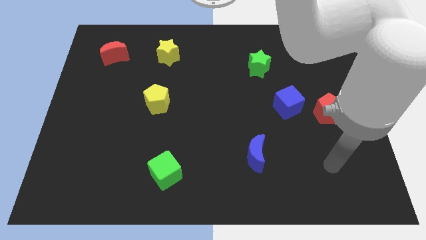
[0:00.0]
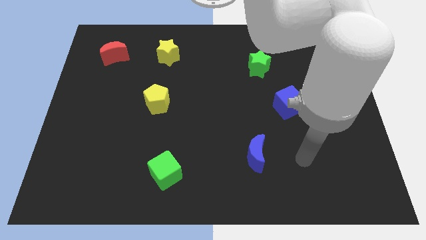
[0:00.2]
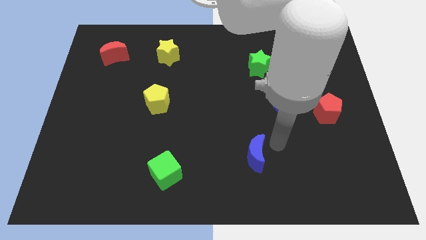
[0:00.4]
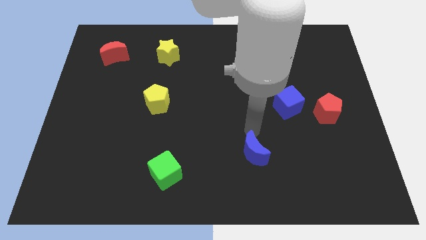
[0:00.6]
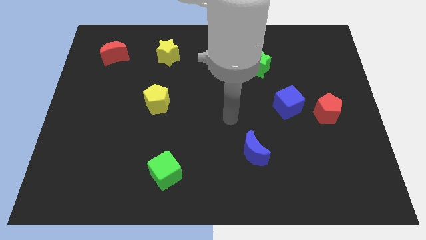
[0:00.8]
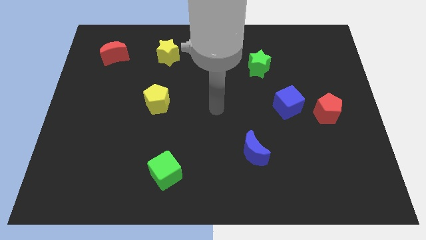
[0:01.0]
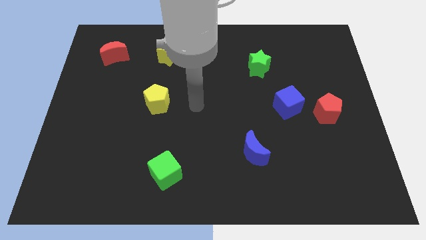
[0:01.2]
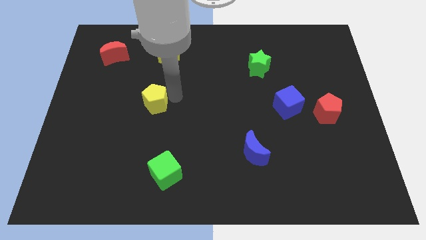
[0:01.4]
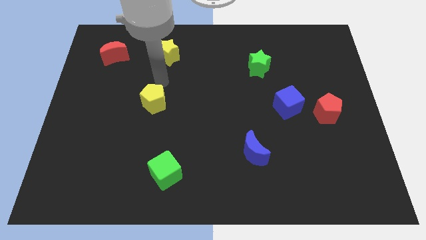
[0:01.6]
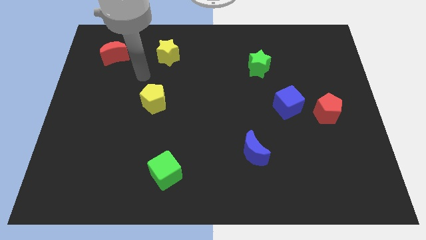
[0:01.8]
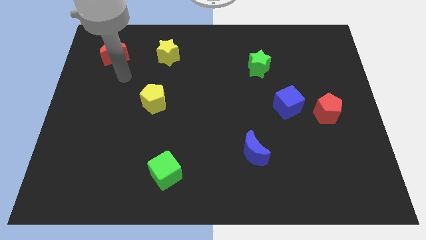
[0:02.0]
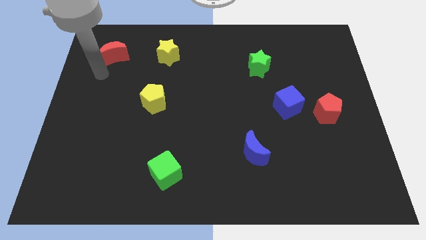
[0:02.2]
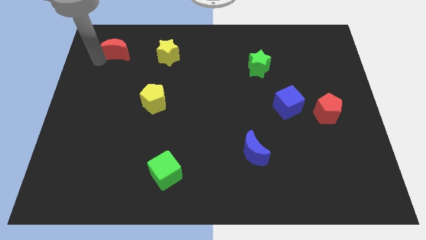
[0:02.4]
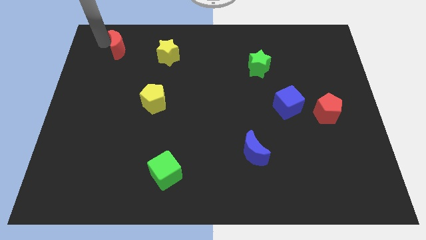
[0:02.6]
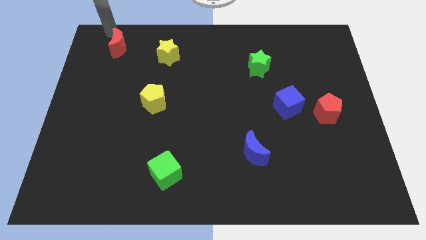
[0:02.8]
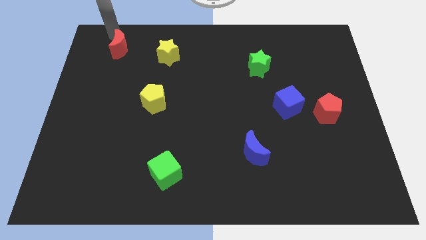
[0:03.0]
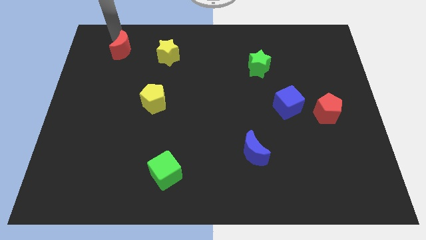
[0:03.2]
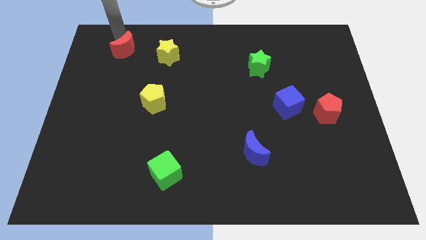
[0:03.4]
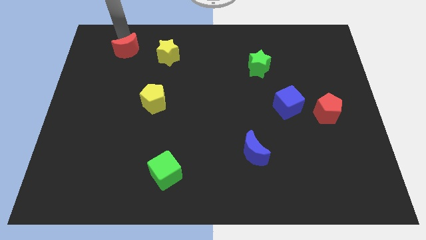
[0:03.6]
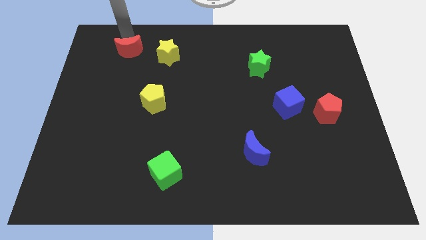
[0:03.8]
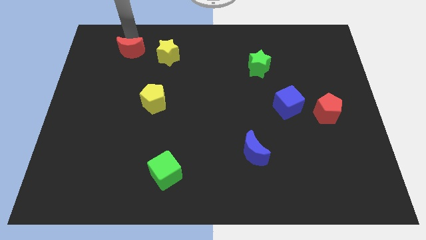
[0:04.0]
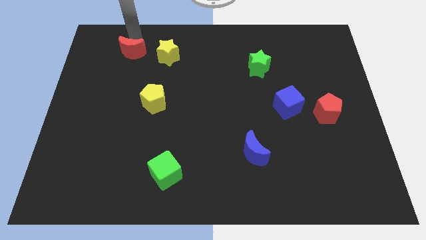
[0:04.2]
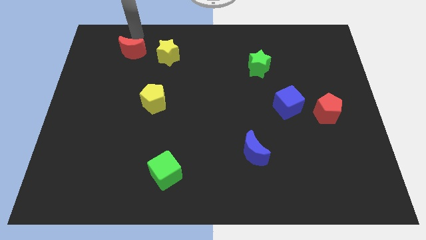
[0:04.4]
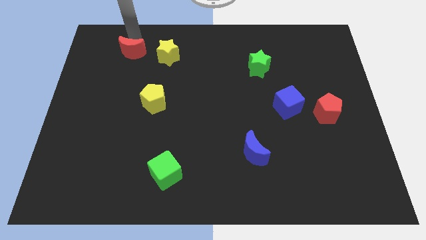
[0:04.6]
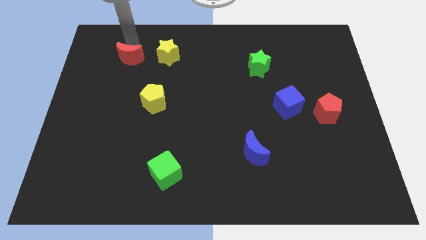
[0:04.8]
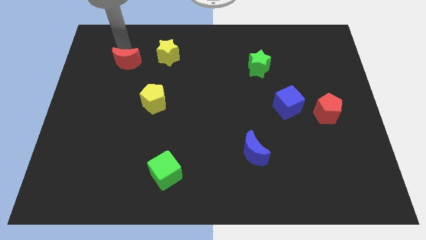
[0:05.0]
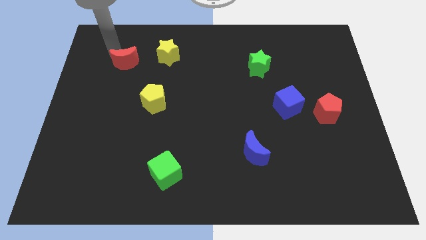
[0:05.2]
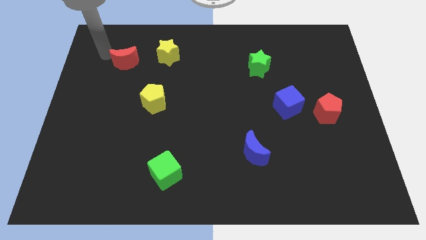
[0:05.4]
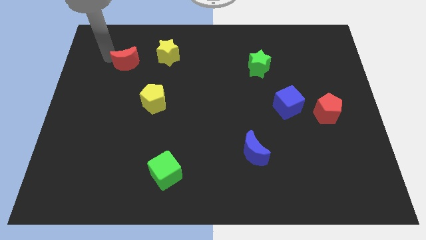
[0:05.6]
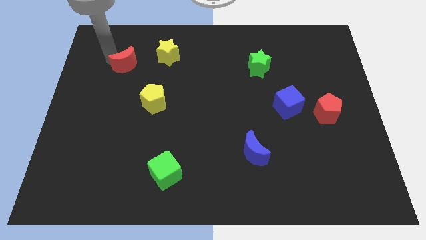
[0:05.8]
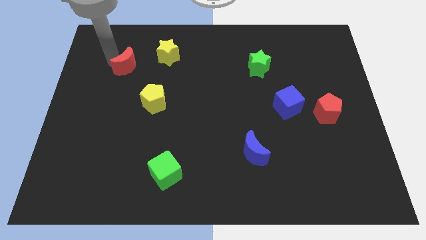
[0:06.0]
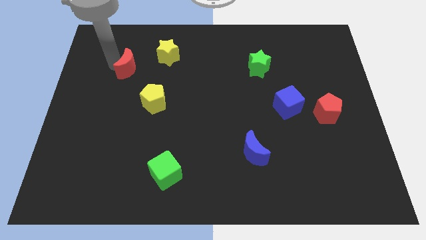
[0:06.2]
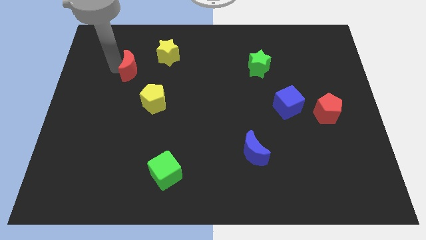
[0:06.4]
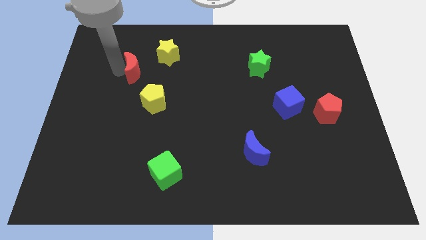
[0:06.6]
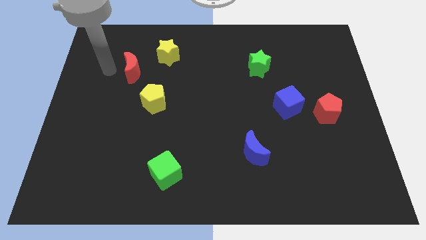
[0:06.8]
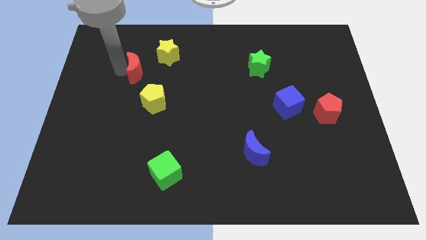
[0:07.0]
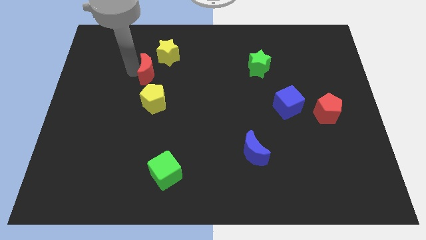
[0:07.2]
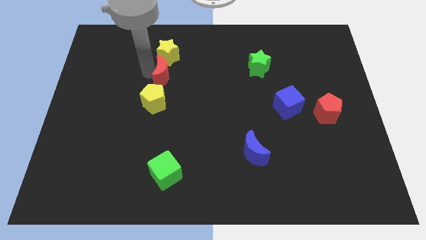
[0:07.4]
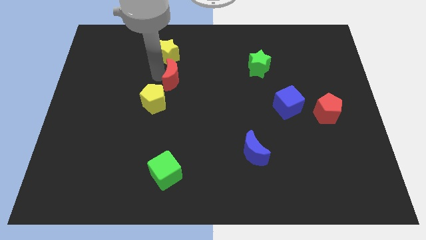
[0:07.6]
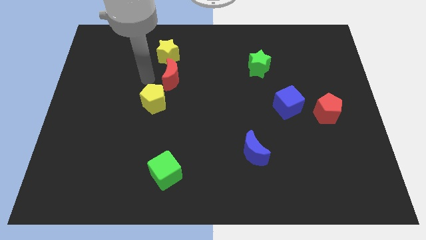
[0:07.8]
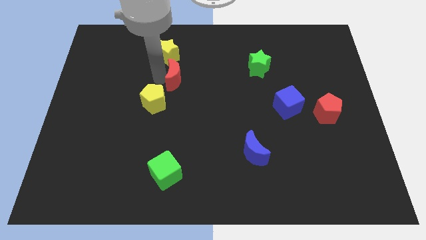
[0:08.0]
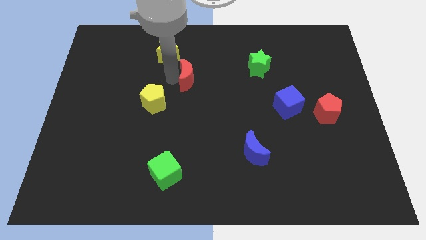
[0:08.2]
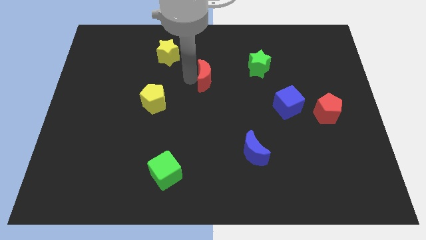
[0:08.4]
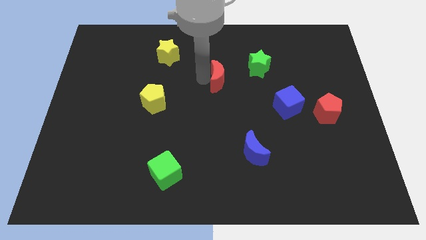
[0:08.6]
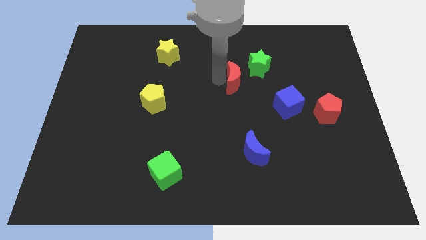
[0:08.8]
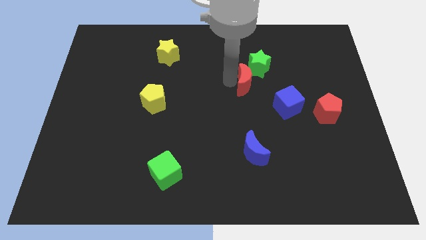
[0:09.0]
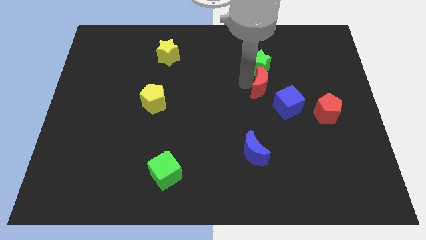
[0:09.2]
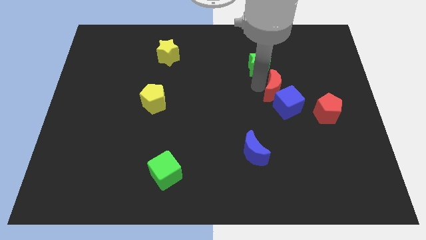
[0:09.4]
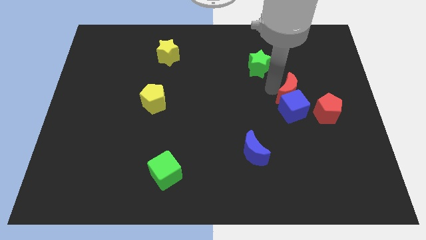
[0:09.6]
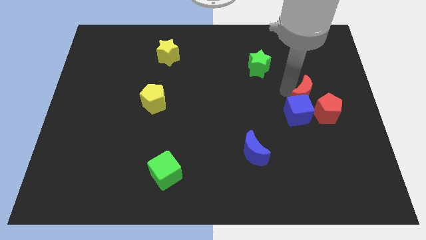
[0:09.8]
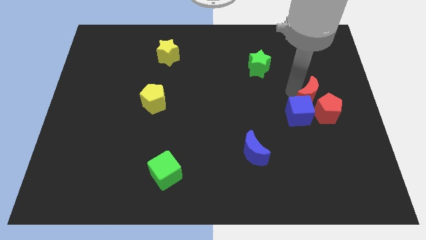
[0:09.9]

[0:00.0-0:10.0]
slide the red moon next to the red pentagon

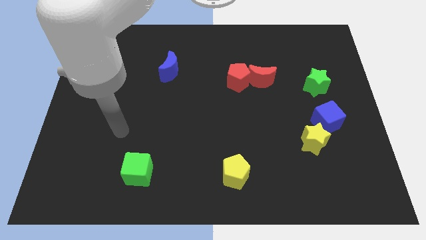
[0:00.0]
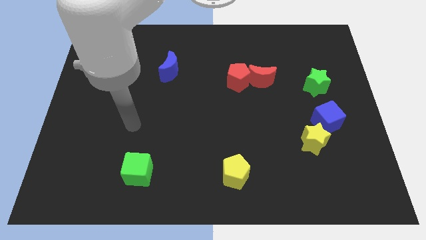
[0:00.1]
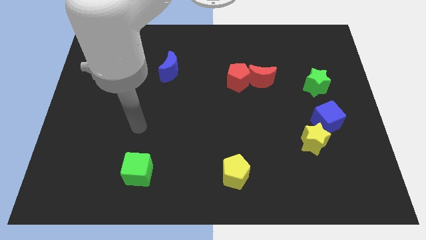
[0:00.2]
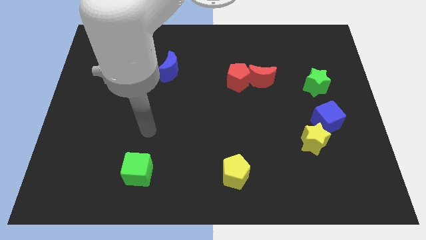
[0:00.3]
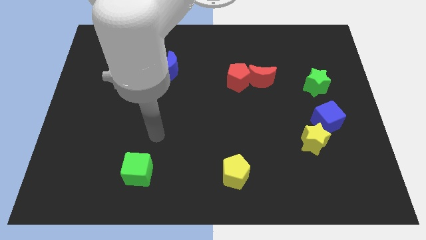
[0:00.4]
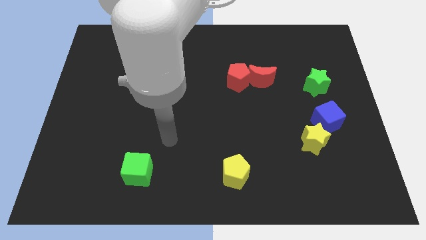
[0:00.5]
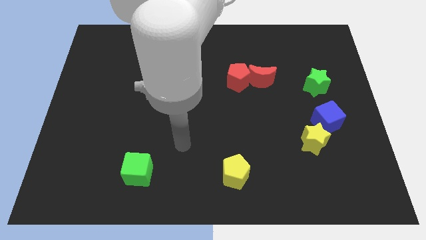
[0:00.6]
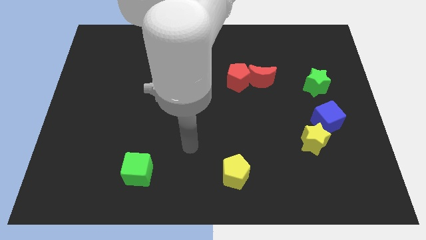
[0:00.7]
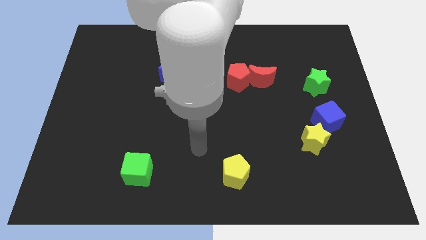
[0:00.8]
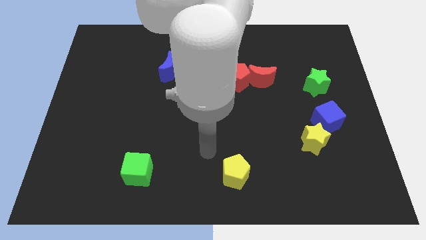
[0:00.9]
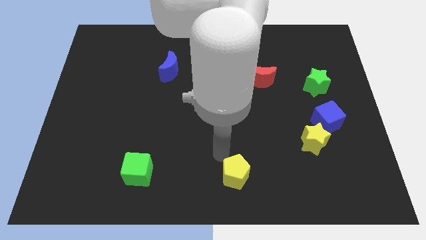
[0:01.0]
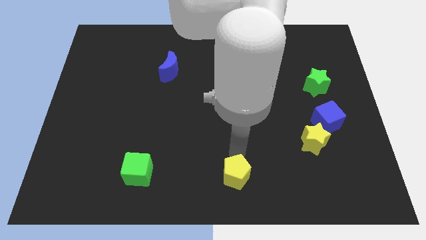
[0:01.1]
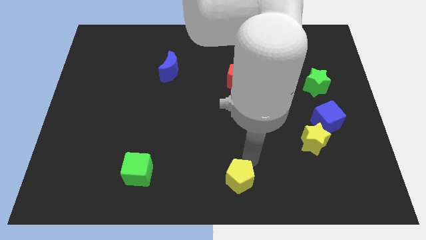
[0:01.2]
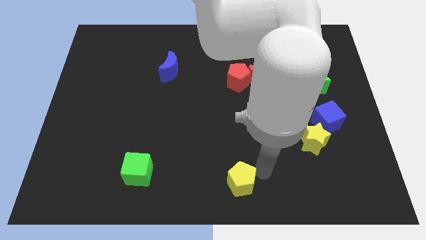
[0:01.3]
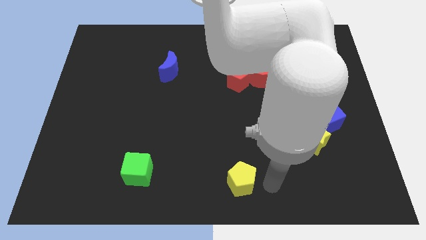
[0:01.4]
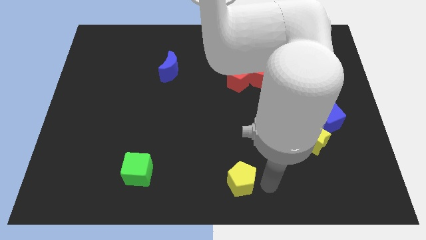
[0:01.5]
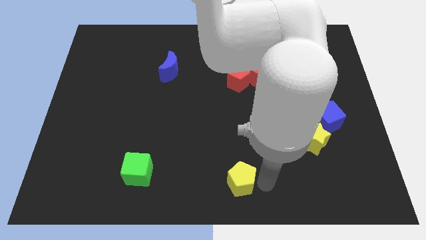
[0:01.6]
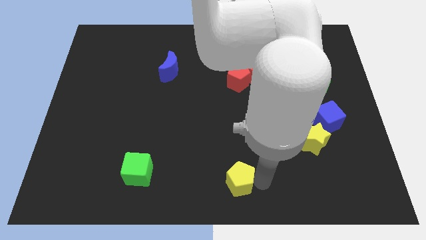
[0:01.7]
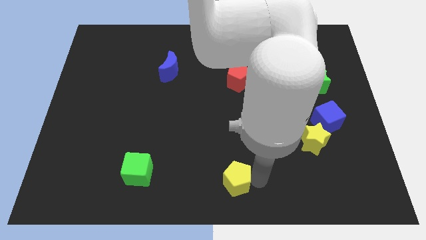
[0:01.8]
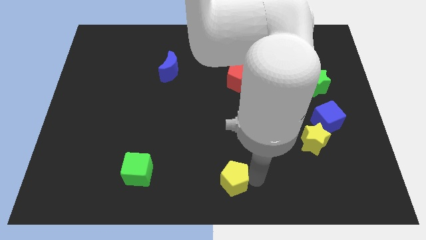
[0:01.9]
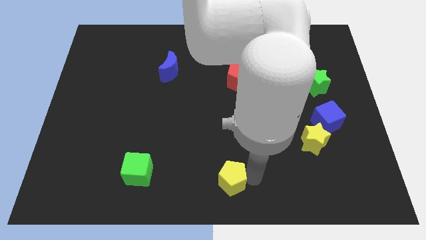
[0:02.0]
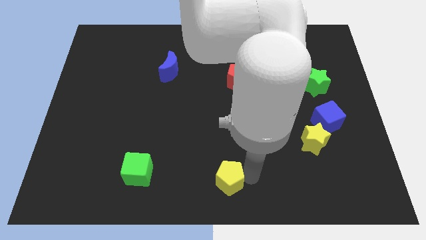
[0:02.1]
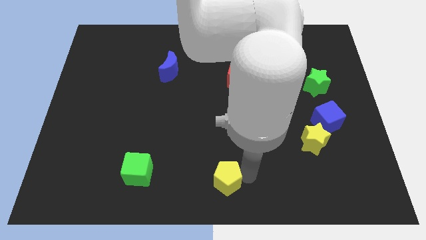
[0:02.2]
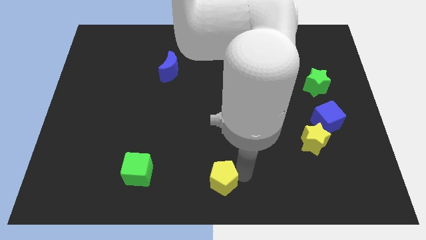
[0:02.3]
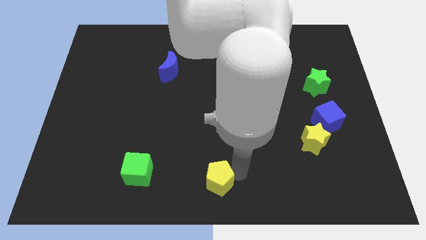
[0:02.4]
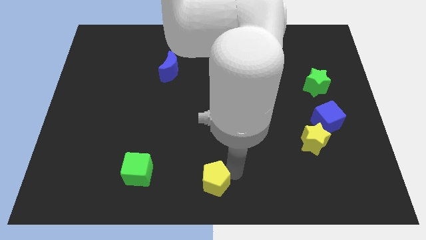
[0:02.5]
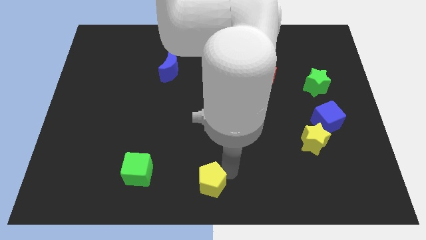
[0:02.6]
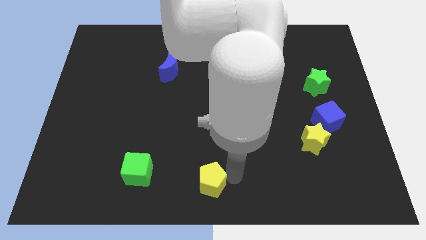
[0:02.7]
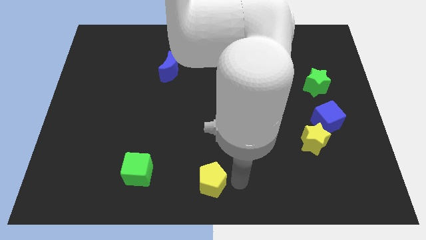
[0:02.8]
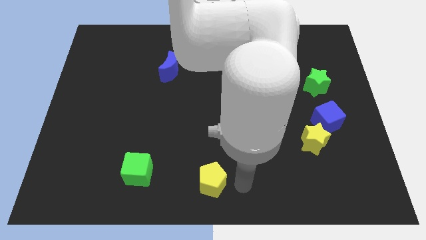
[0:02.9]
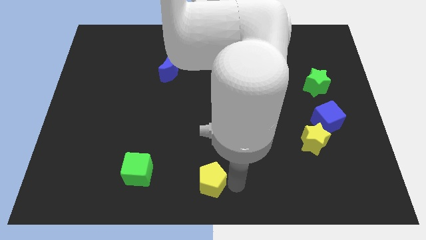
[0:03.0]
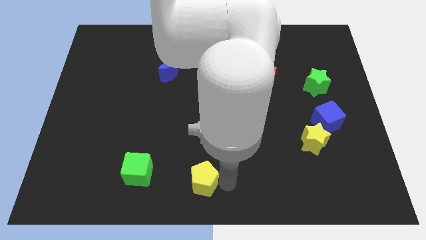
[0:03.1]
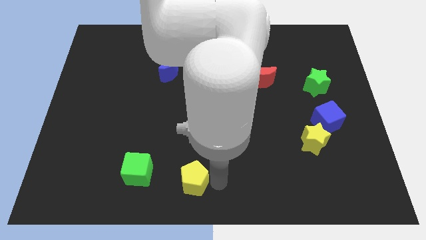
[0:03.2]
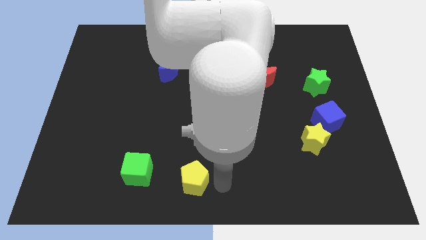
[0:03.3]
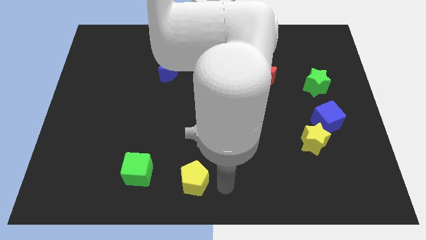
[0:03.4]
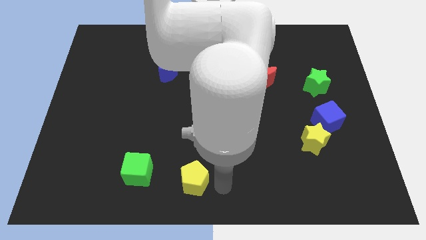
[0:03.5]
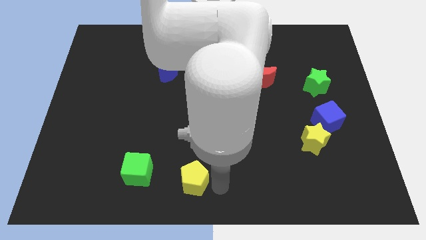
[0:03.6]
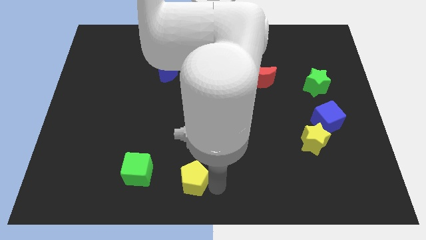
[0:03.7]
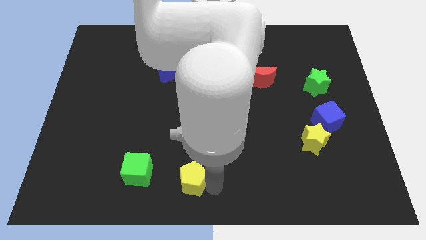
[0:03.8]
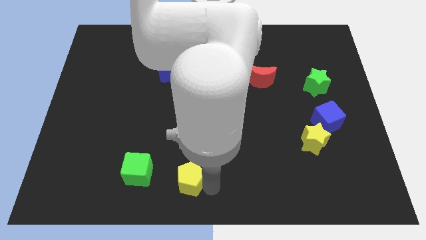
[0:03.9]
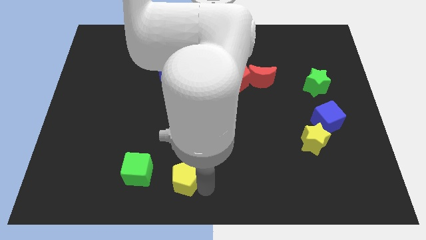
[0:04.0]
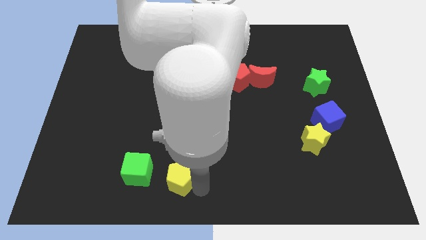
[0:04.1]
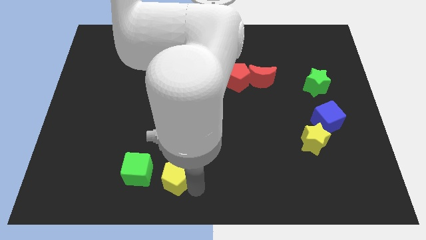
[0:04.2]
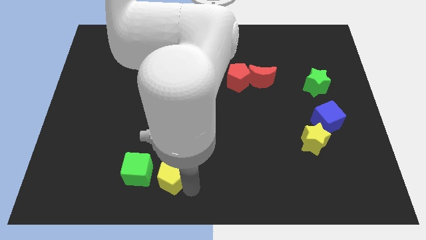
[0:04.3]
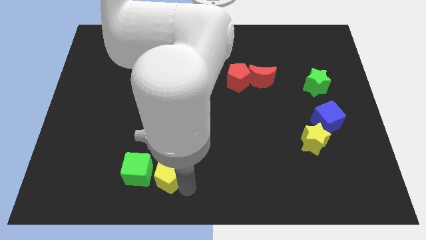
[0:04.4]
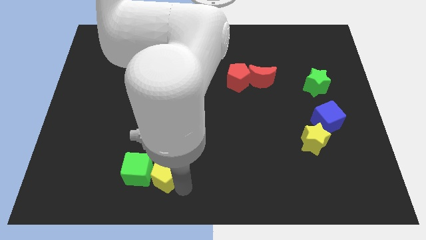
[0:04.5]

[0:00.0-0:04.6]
move the yellow pentagon towards the green cube
